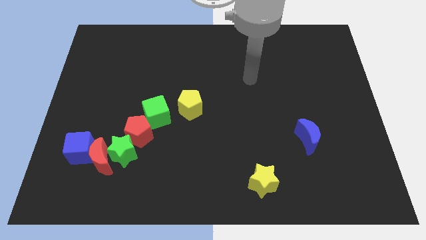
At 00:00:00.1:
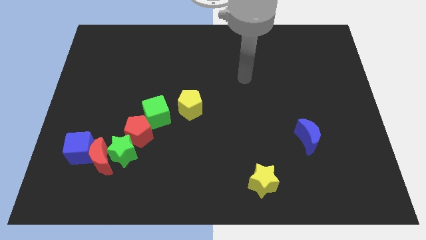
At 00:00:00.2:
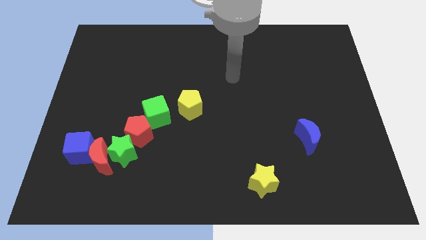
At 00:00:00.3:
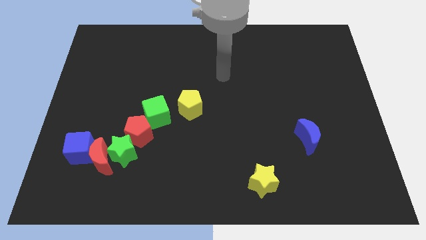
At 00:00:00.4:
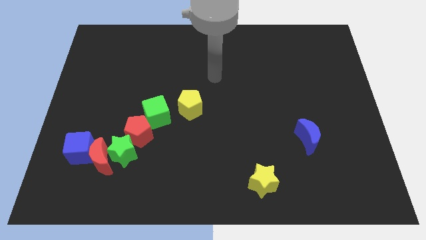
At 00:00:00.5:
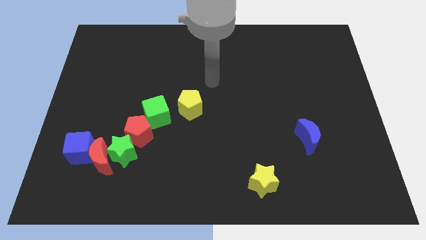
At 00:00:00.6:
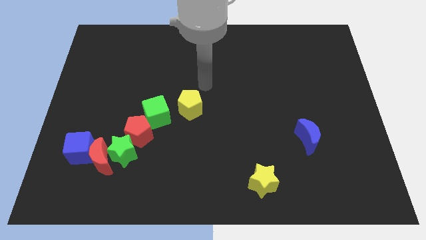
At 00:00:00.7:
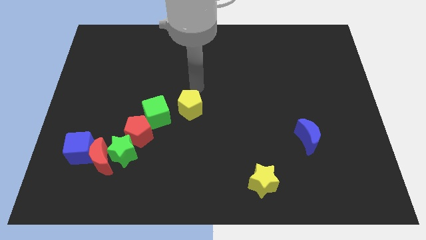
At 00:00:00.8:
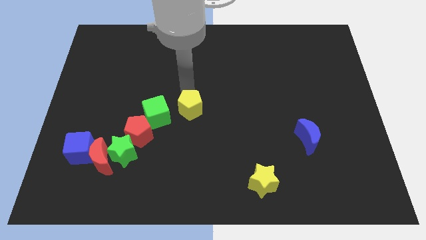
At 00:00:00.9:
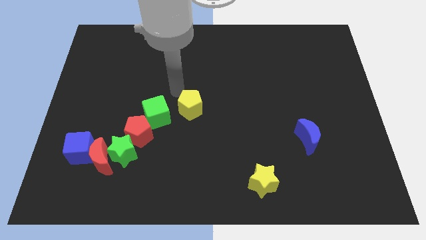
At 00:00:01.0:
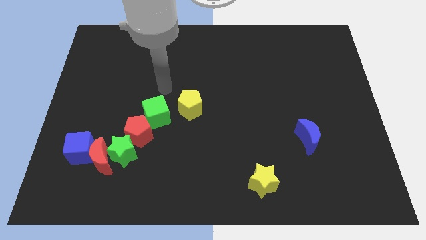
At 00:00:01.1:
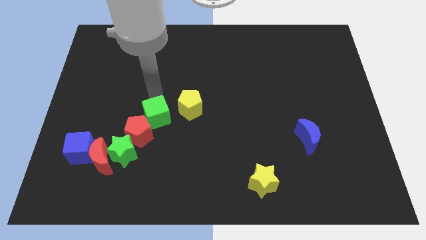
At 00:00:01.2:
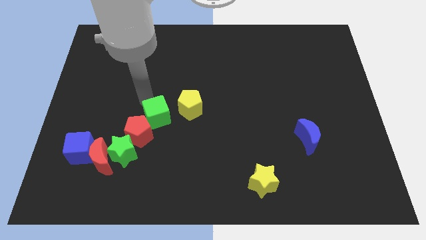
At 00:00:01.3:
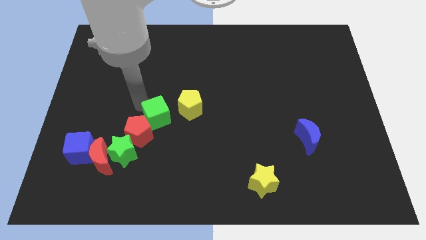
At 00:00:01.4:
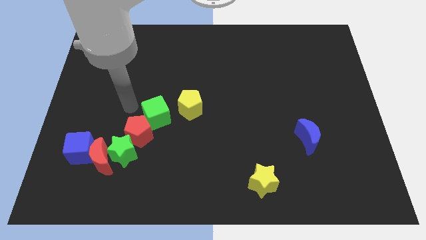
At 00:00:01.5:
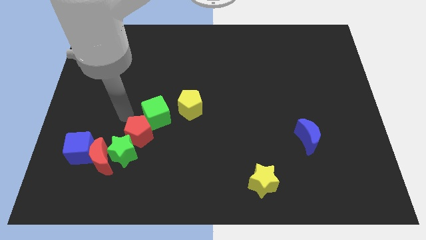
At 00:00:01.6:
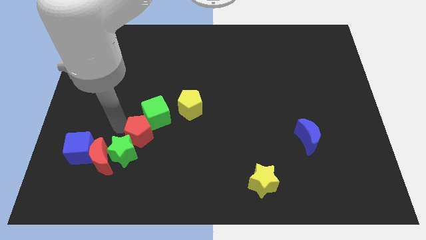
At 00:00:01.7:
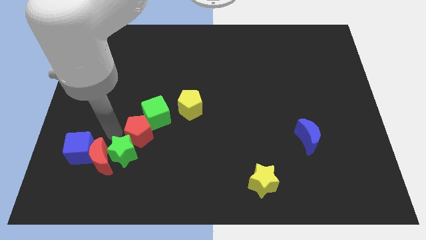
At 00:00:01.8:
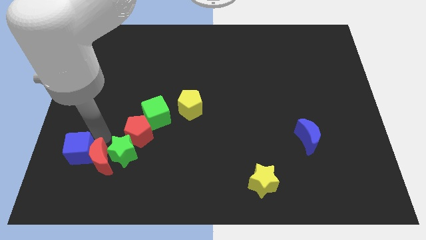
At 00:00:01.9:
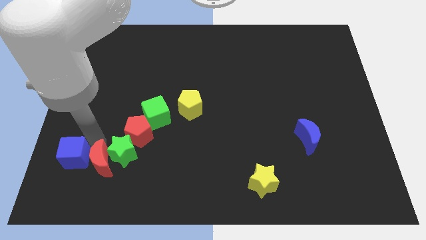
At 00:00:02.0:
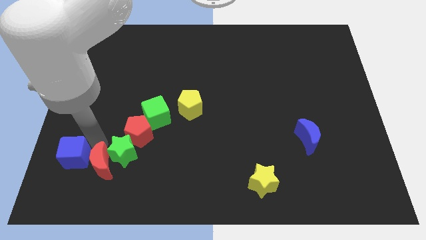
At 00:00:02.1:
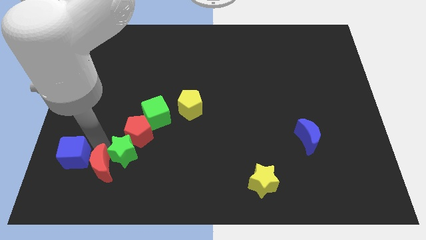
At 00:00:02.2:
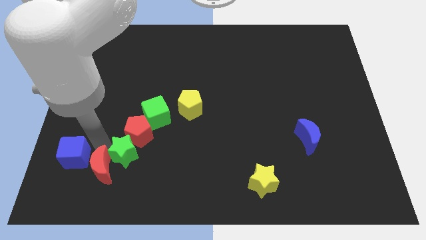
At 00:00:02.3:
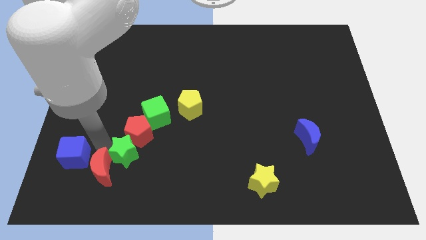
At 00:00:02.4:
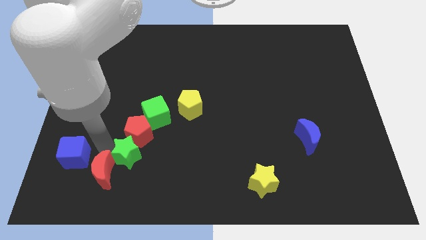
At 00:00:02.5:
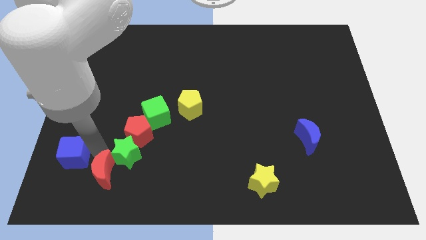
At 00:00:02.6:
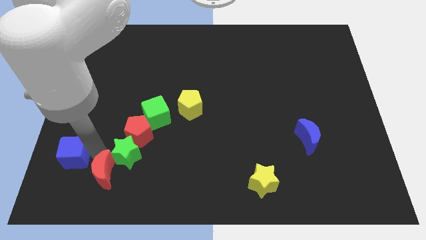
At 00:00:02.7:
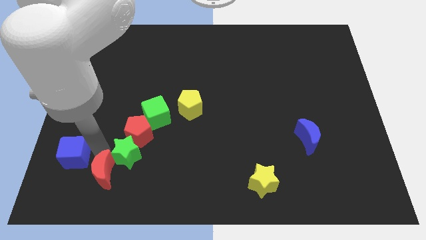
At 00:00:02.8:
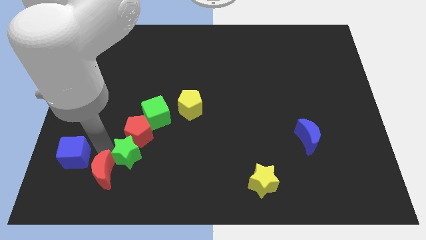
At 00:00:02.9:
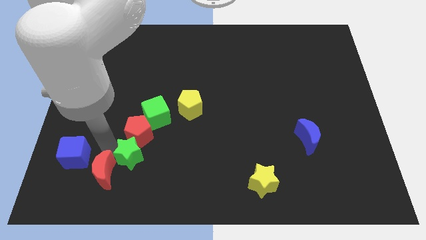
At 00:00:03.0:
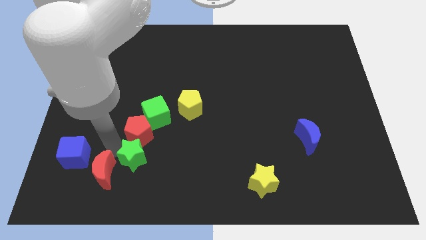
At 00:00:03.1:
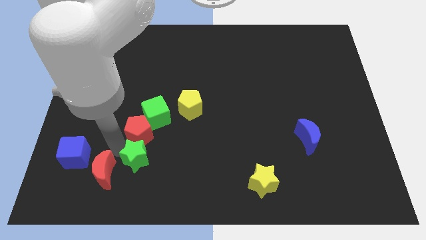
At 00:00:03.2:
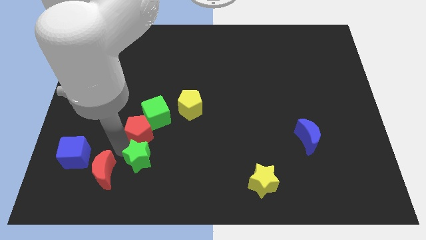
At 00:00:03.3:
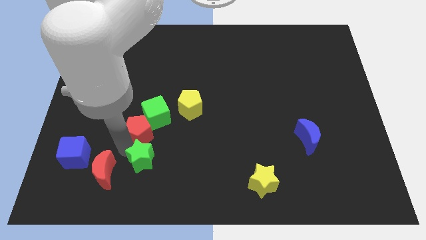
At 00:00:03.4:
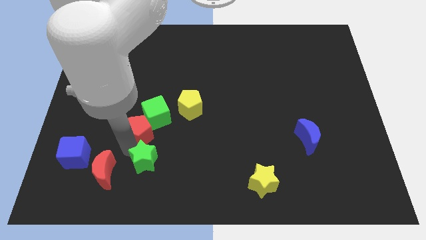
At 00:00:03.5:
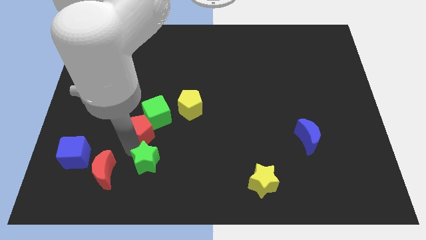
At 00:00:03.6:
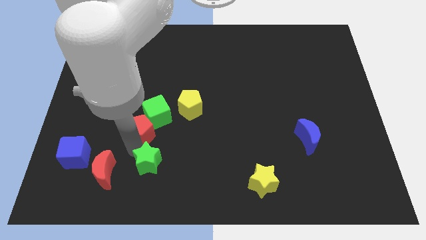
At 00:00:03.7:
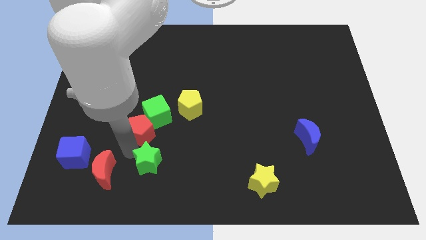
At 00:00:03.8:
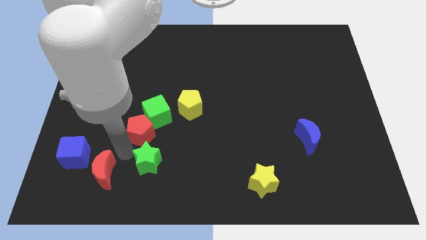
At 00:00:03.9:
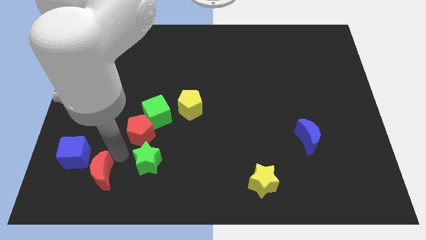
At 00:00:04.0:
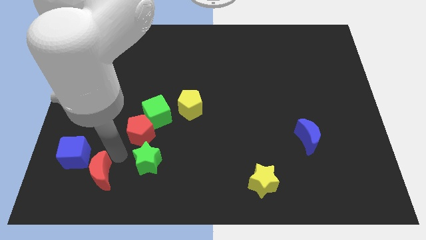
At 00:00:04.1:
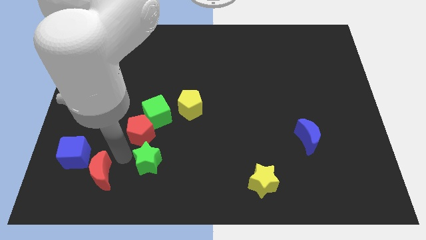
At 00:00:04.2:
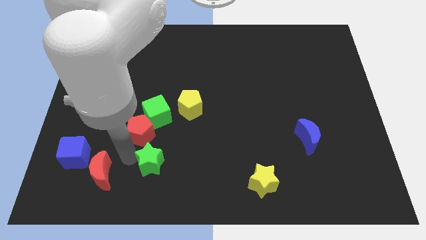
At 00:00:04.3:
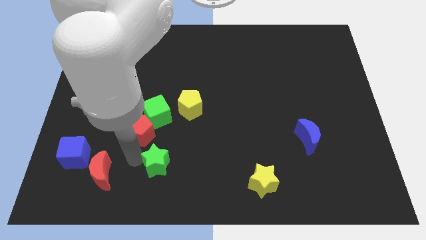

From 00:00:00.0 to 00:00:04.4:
separate the green star from the red moon, red pentagon, and blue cube

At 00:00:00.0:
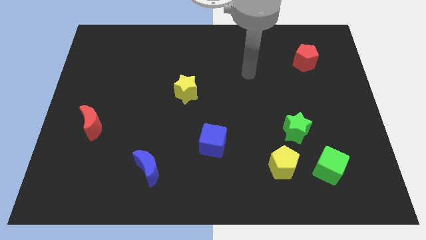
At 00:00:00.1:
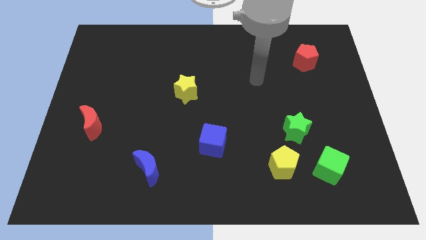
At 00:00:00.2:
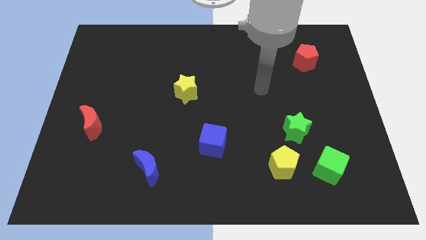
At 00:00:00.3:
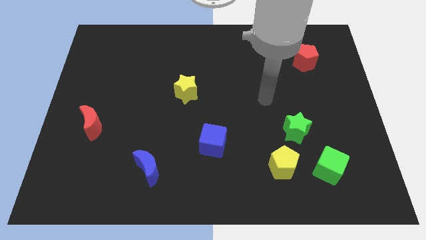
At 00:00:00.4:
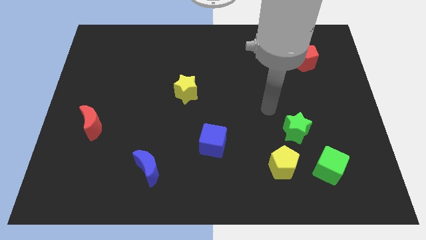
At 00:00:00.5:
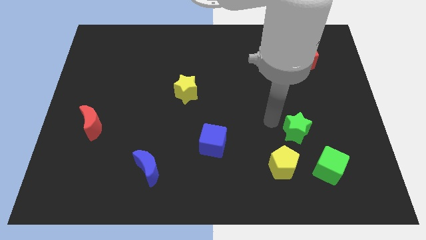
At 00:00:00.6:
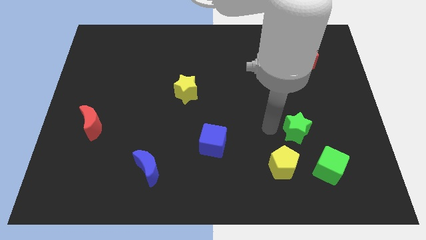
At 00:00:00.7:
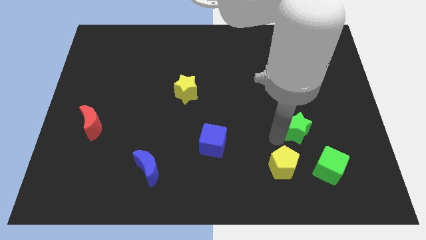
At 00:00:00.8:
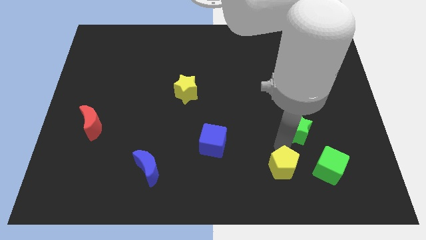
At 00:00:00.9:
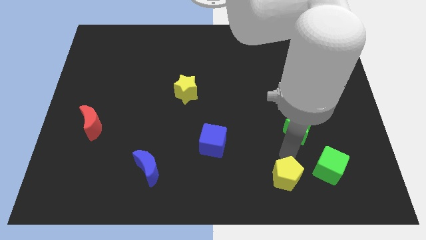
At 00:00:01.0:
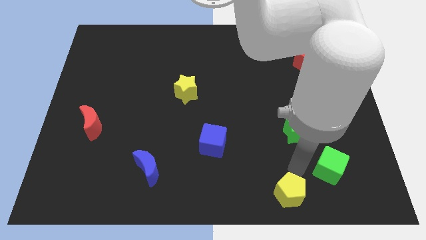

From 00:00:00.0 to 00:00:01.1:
pull the green cube apart from the yellow pentagon

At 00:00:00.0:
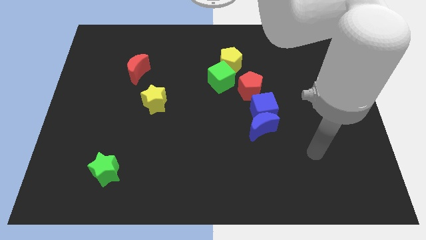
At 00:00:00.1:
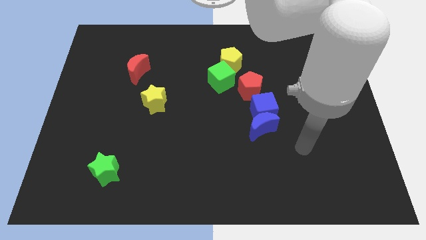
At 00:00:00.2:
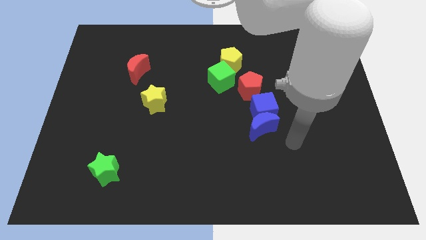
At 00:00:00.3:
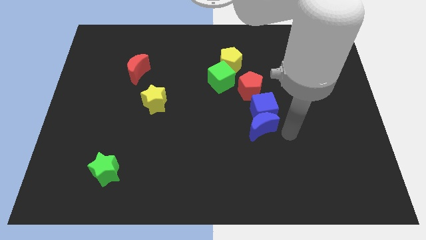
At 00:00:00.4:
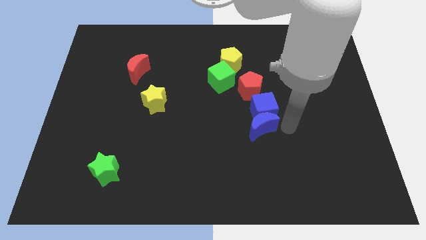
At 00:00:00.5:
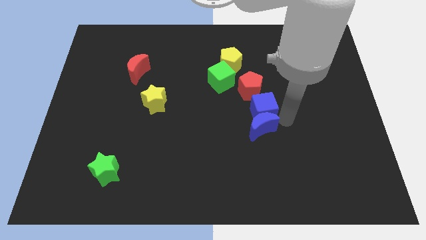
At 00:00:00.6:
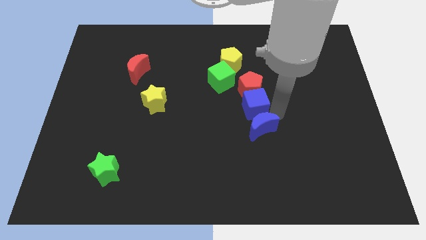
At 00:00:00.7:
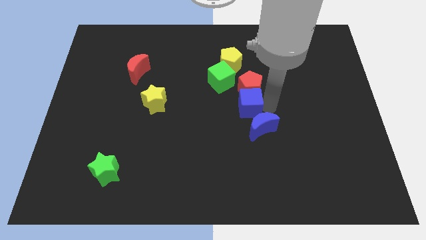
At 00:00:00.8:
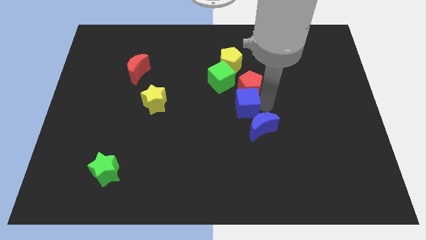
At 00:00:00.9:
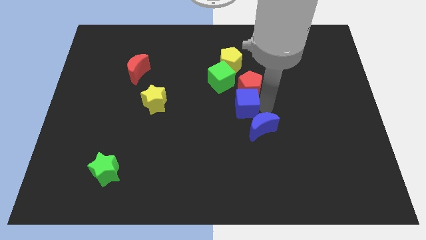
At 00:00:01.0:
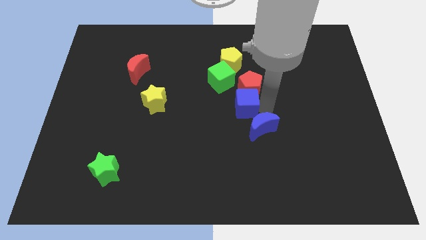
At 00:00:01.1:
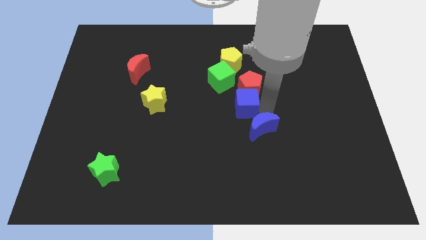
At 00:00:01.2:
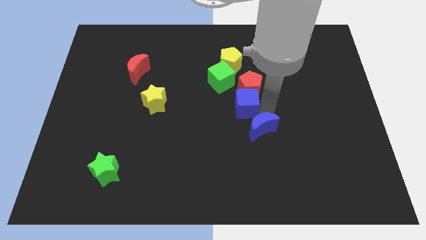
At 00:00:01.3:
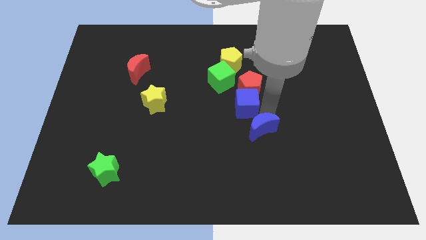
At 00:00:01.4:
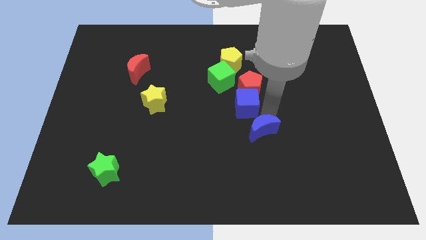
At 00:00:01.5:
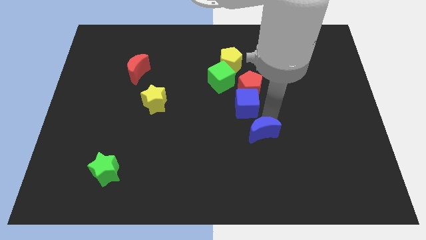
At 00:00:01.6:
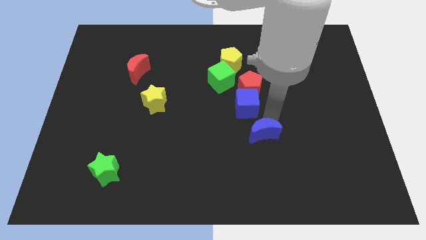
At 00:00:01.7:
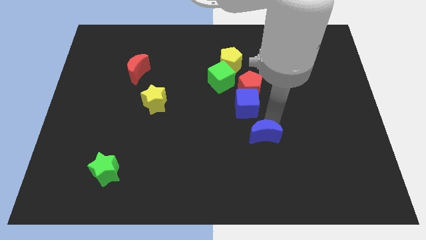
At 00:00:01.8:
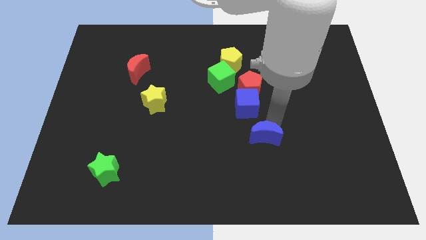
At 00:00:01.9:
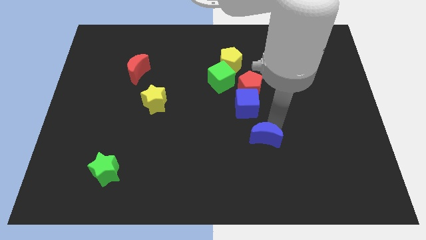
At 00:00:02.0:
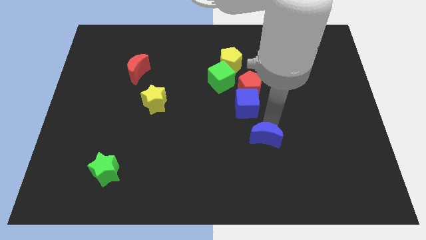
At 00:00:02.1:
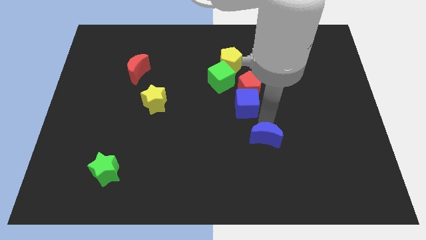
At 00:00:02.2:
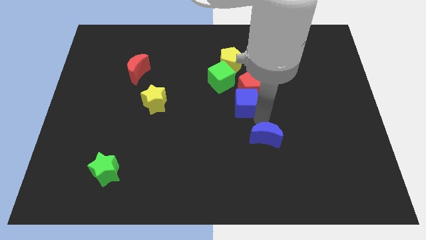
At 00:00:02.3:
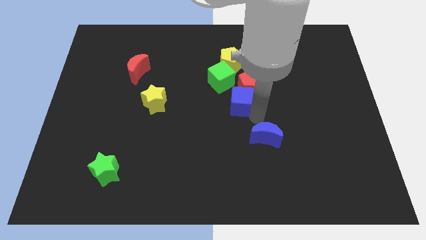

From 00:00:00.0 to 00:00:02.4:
separate the blue moon from the blue cube

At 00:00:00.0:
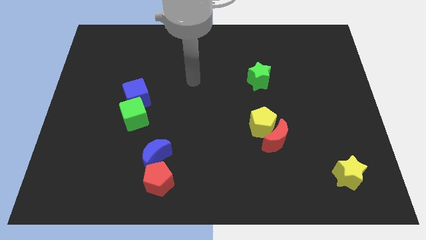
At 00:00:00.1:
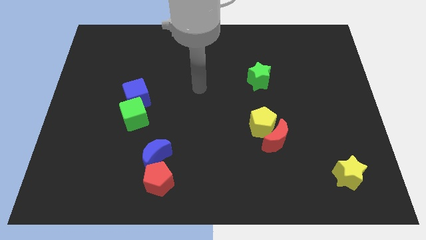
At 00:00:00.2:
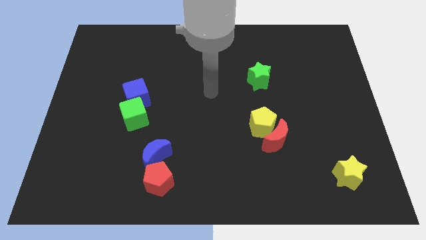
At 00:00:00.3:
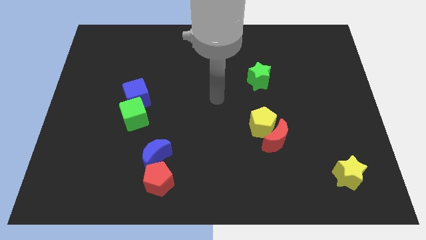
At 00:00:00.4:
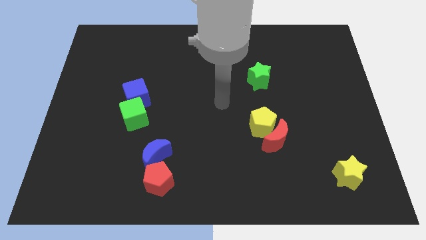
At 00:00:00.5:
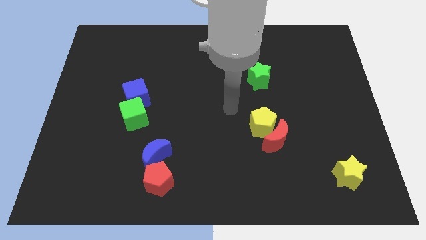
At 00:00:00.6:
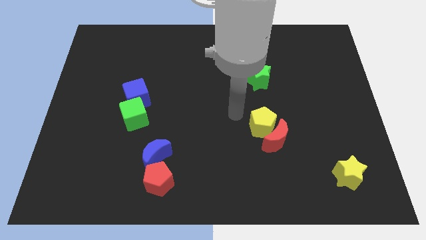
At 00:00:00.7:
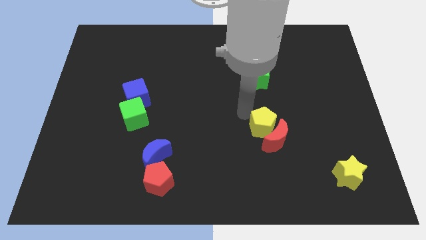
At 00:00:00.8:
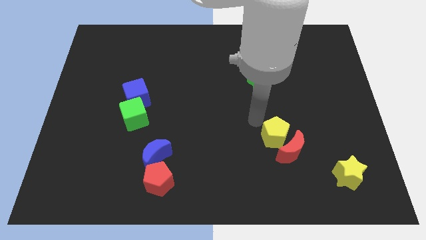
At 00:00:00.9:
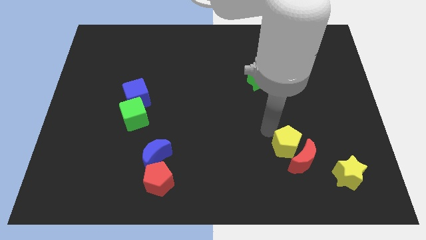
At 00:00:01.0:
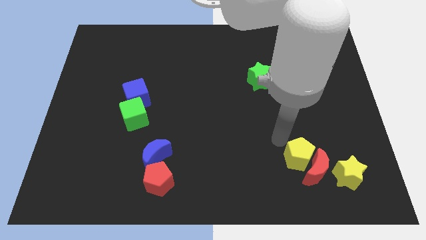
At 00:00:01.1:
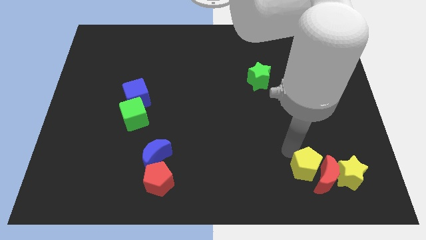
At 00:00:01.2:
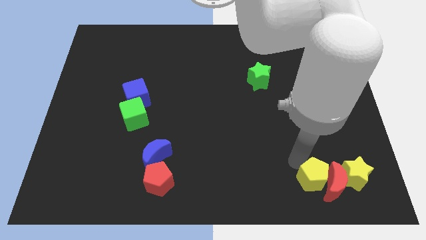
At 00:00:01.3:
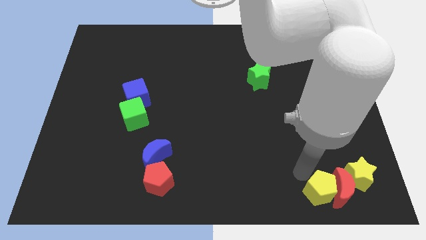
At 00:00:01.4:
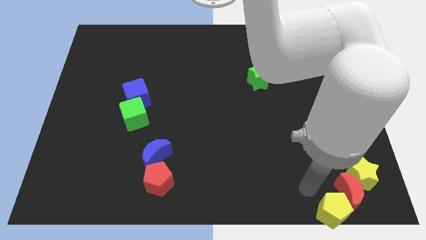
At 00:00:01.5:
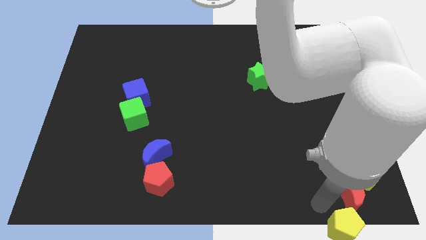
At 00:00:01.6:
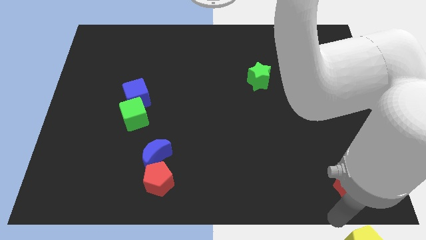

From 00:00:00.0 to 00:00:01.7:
separate the red moon from the yellow pentagon
